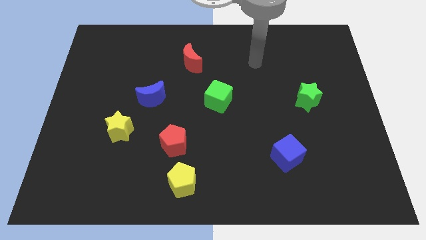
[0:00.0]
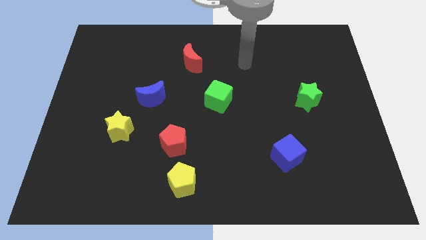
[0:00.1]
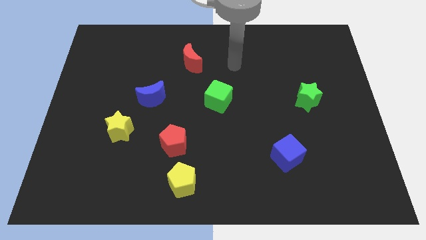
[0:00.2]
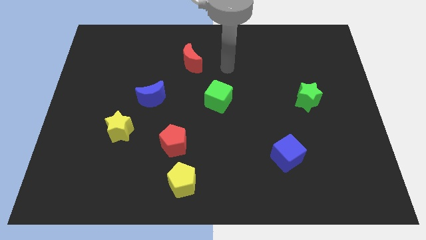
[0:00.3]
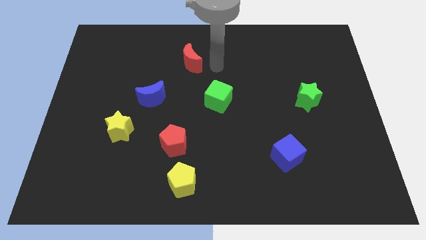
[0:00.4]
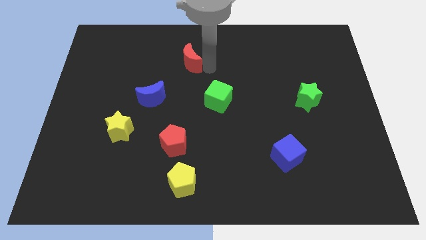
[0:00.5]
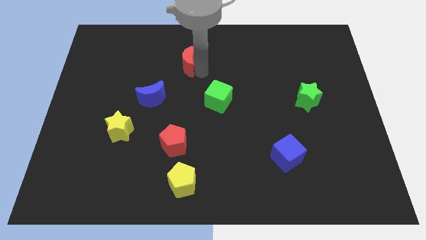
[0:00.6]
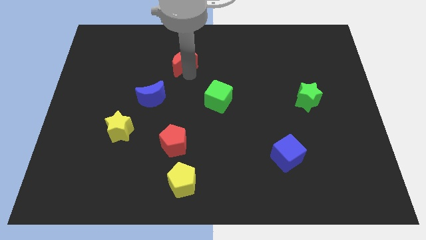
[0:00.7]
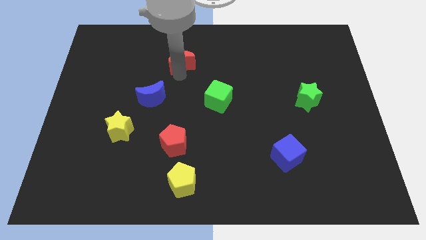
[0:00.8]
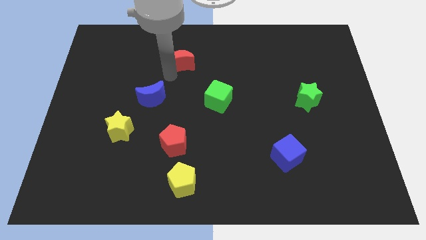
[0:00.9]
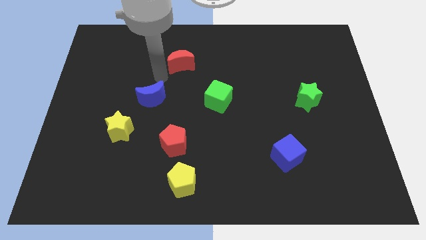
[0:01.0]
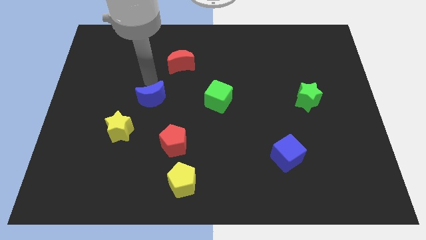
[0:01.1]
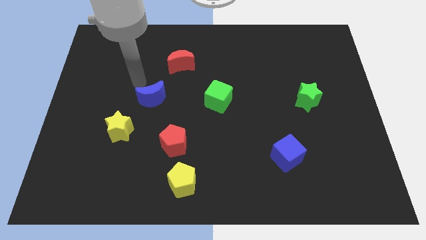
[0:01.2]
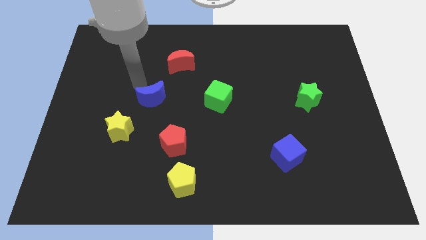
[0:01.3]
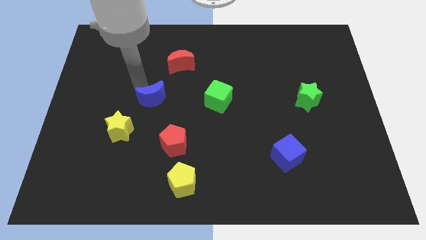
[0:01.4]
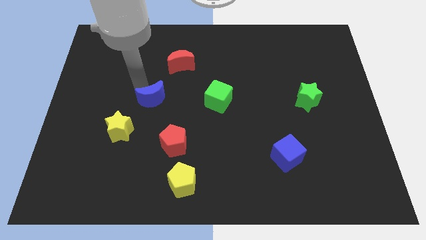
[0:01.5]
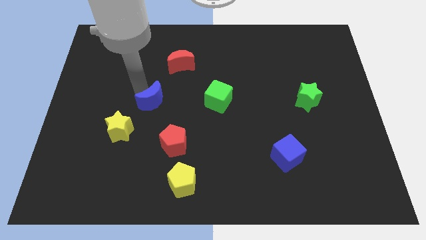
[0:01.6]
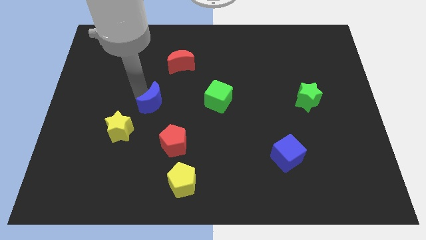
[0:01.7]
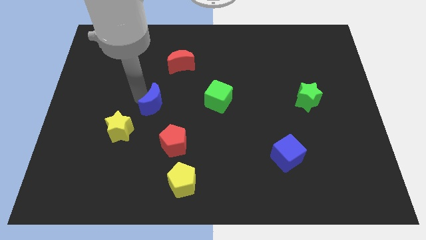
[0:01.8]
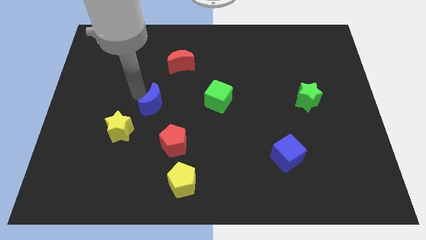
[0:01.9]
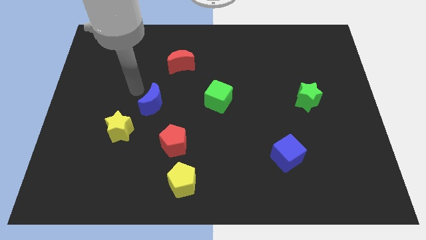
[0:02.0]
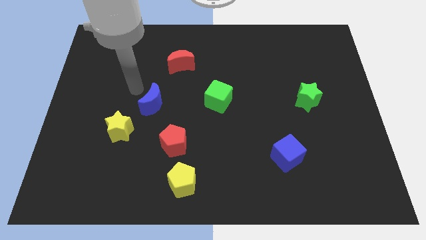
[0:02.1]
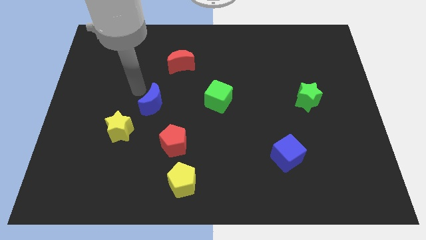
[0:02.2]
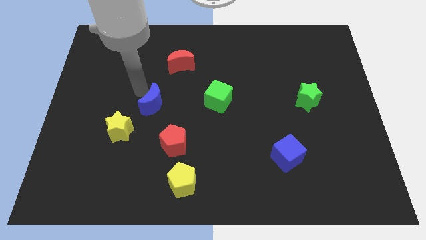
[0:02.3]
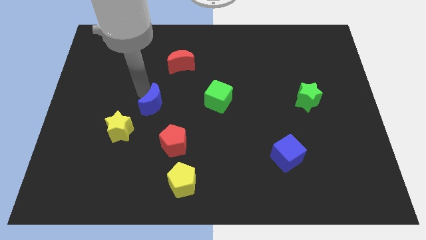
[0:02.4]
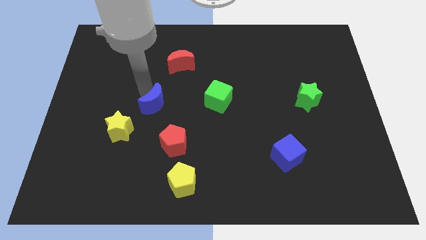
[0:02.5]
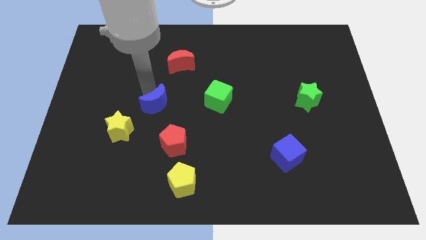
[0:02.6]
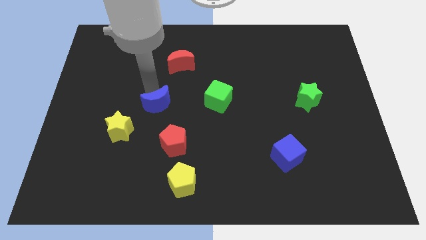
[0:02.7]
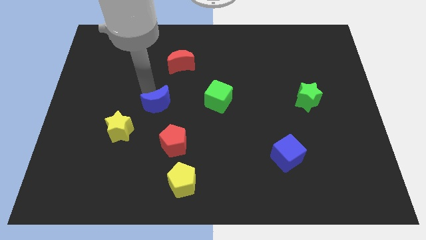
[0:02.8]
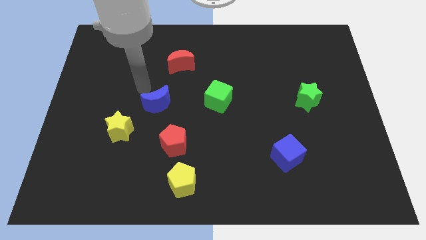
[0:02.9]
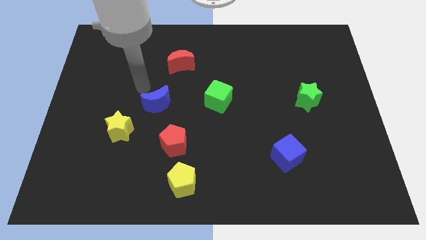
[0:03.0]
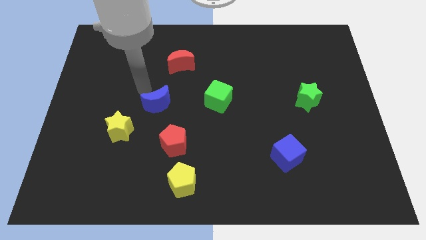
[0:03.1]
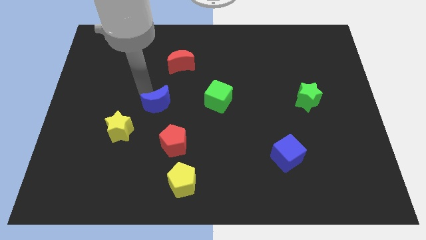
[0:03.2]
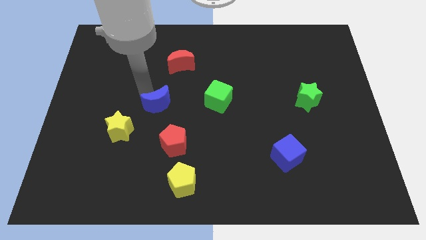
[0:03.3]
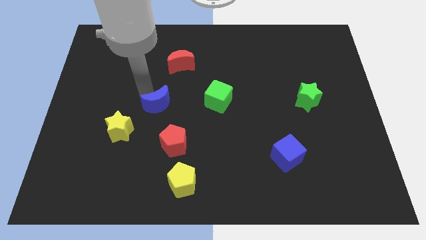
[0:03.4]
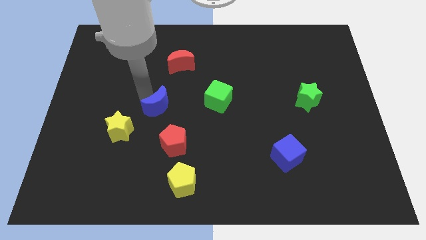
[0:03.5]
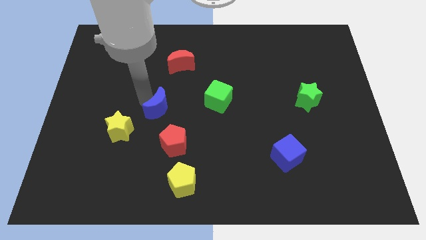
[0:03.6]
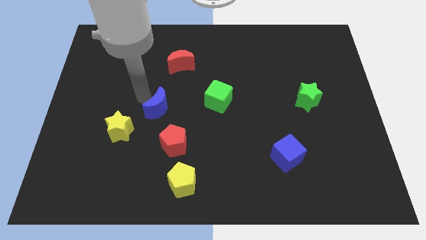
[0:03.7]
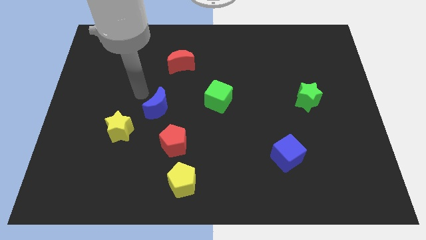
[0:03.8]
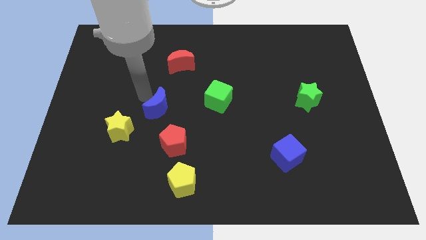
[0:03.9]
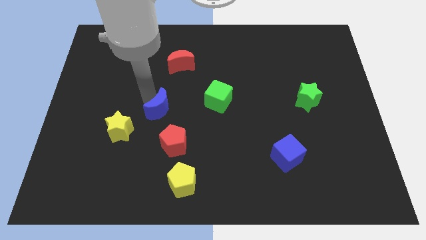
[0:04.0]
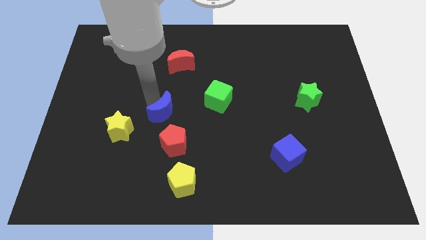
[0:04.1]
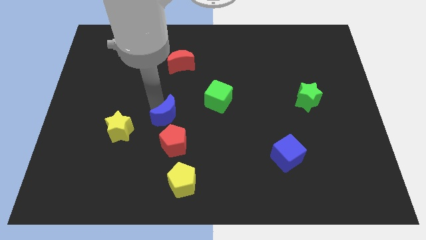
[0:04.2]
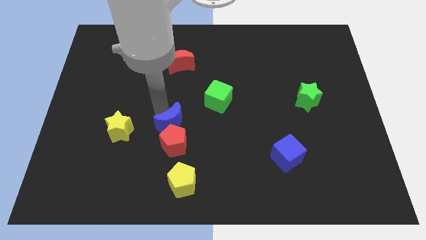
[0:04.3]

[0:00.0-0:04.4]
slightly slide the blue moon down and to the right diagonally

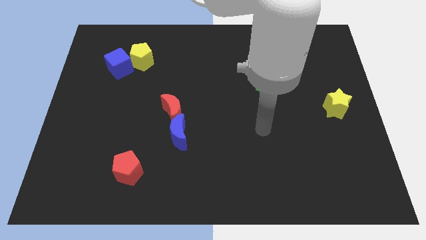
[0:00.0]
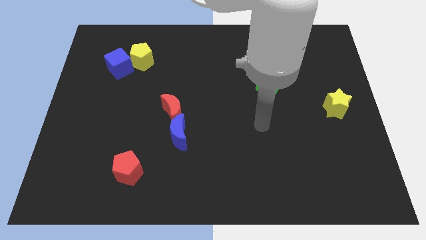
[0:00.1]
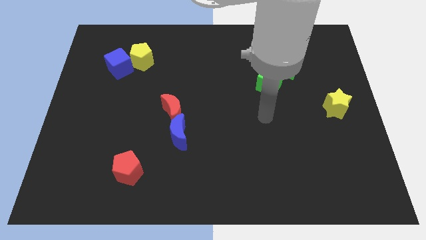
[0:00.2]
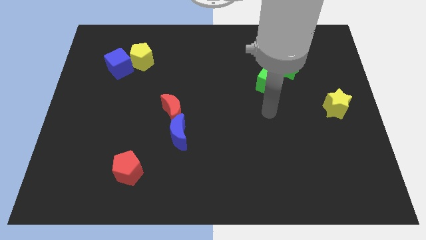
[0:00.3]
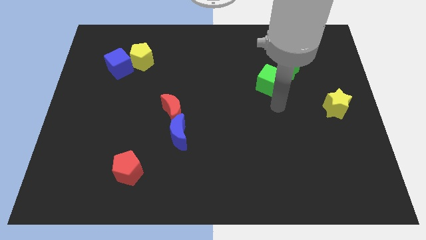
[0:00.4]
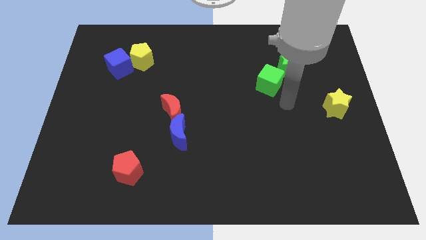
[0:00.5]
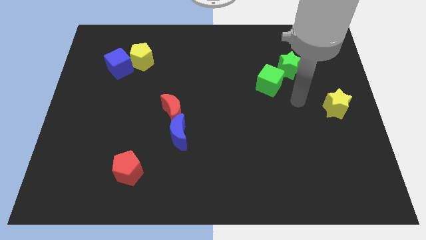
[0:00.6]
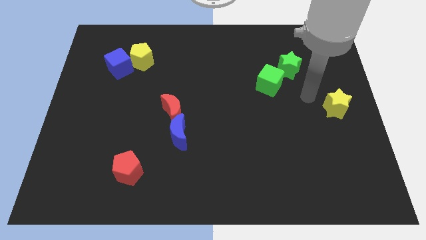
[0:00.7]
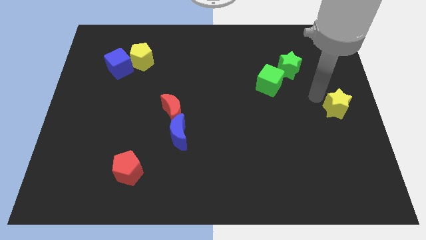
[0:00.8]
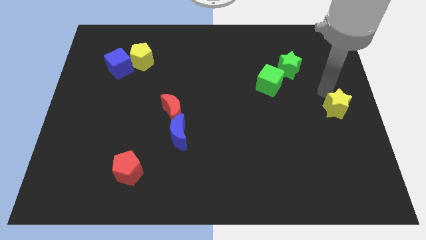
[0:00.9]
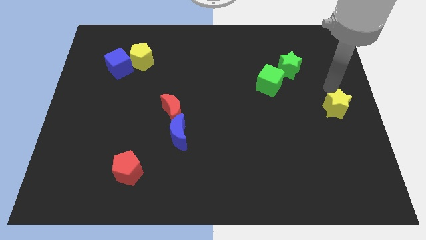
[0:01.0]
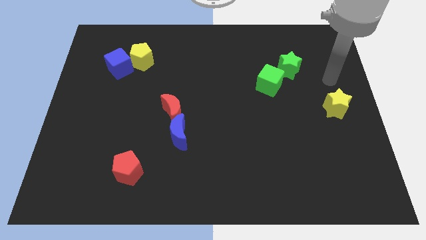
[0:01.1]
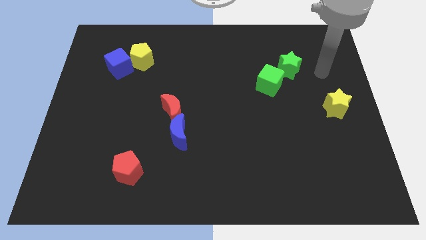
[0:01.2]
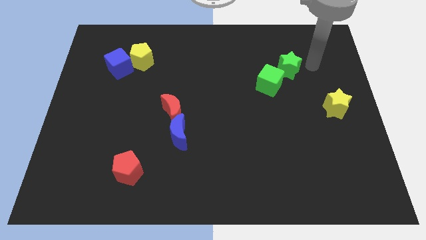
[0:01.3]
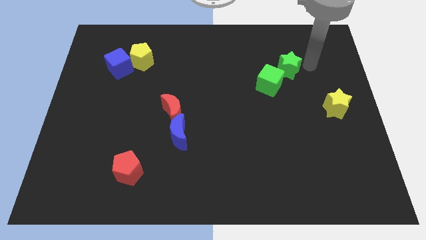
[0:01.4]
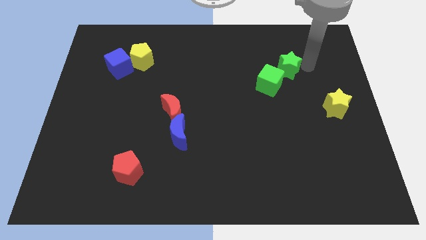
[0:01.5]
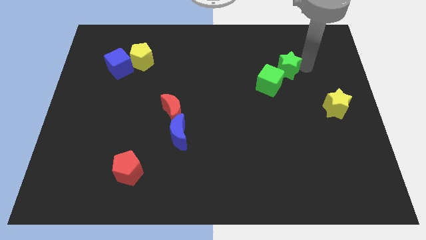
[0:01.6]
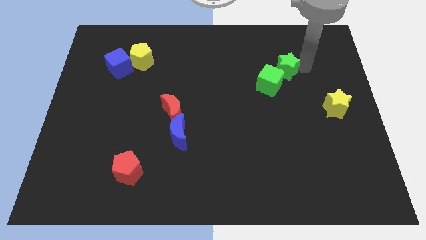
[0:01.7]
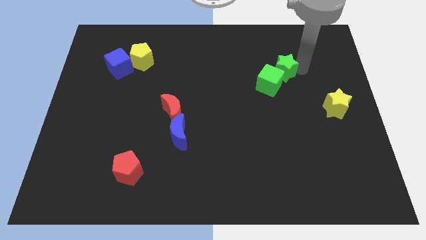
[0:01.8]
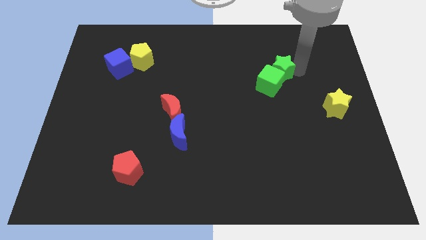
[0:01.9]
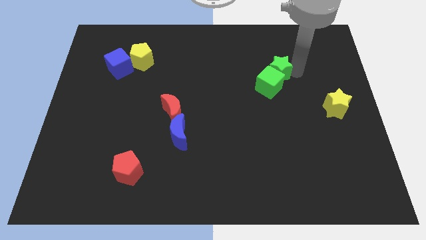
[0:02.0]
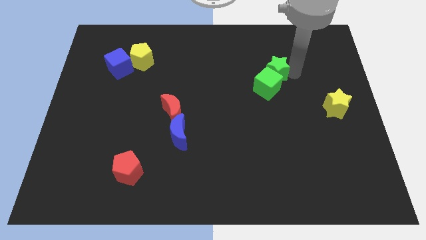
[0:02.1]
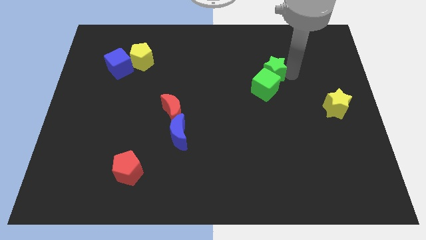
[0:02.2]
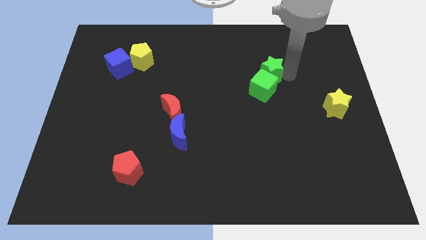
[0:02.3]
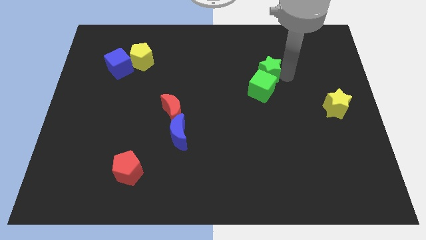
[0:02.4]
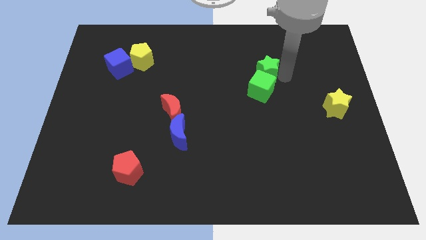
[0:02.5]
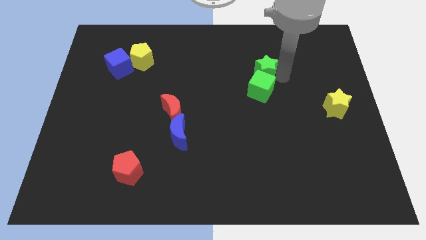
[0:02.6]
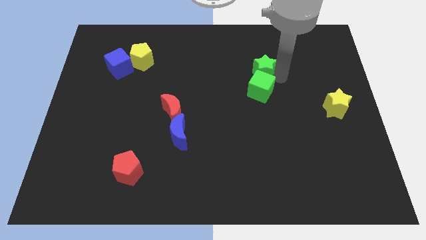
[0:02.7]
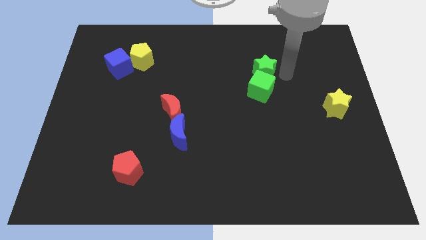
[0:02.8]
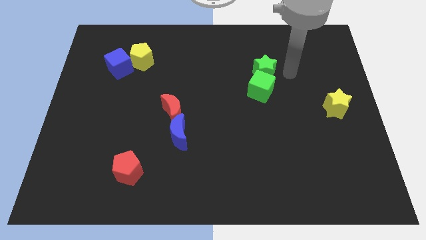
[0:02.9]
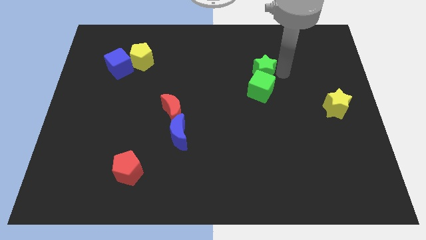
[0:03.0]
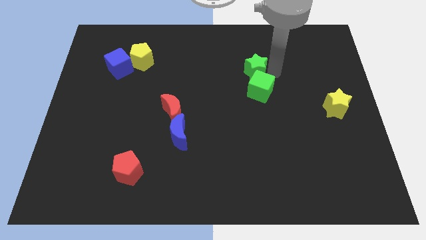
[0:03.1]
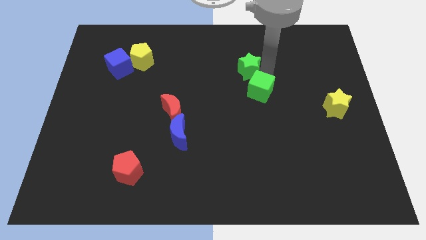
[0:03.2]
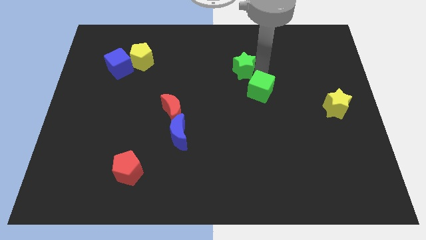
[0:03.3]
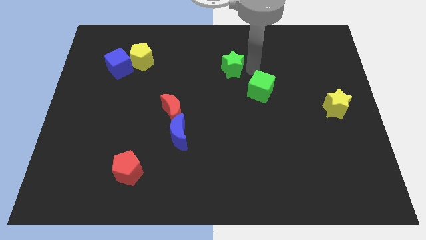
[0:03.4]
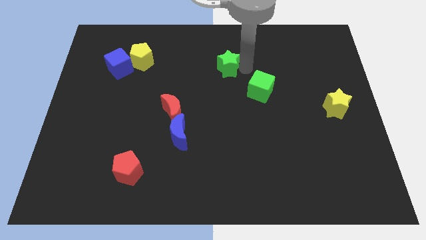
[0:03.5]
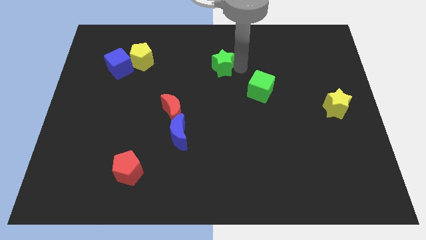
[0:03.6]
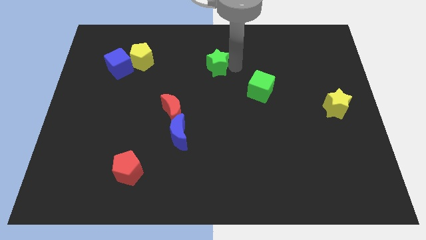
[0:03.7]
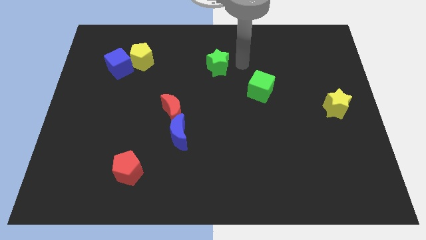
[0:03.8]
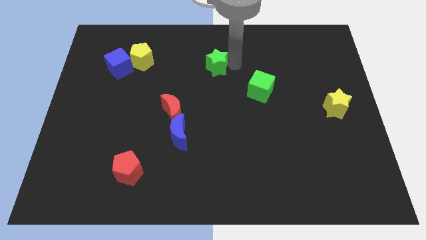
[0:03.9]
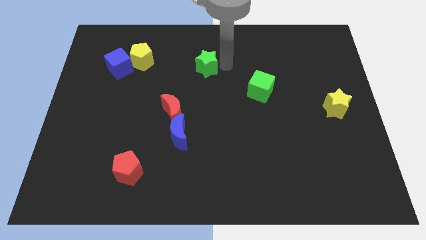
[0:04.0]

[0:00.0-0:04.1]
move the green star left
